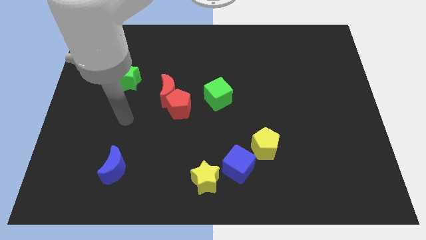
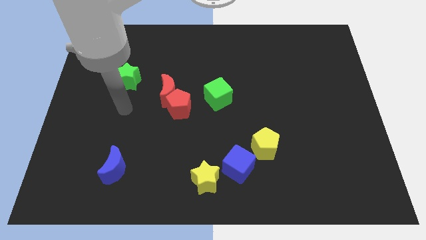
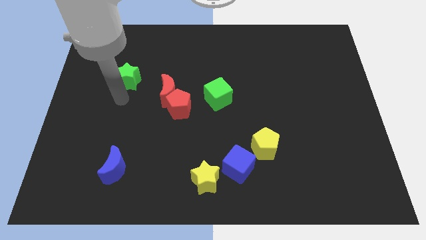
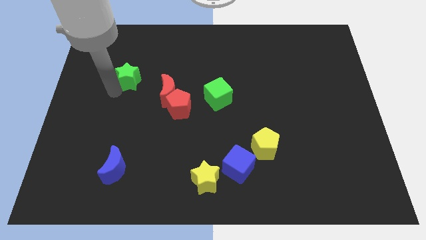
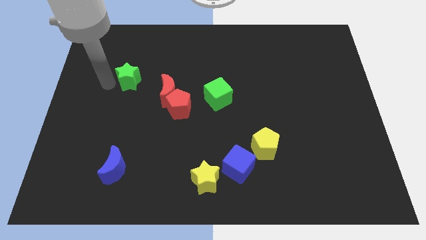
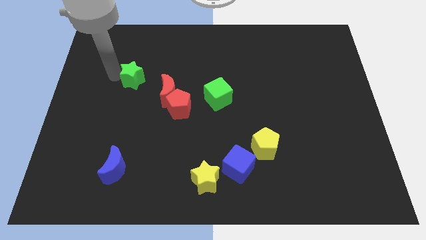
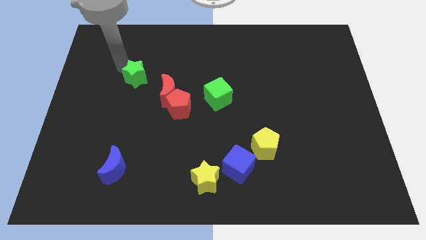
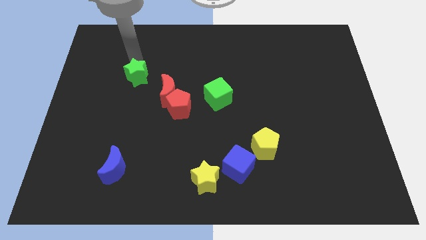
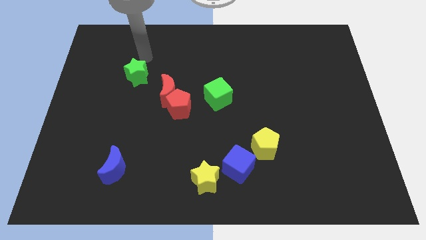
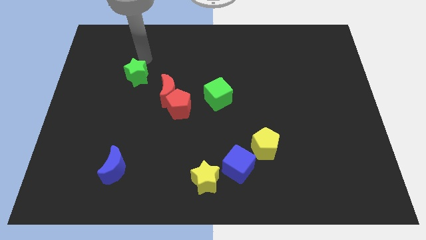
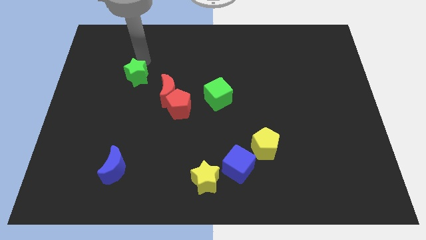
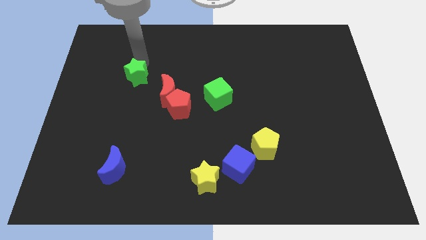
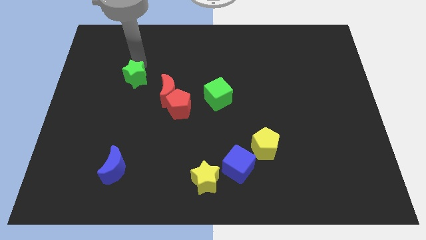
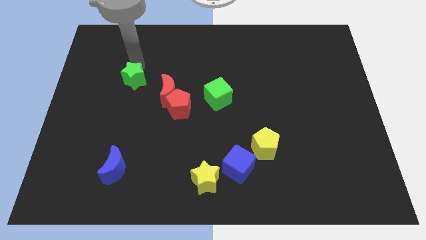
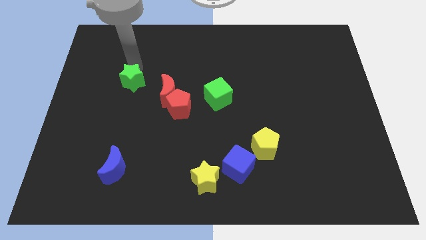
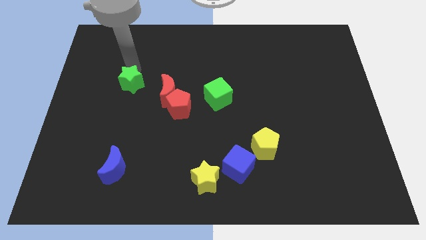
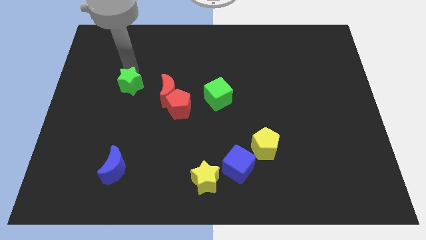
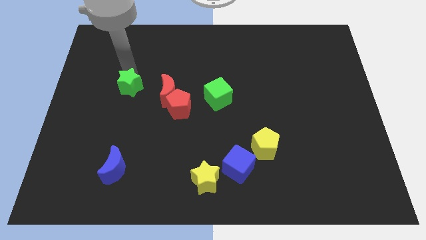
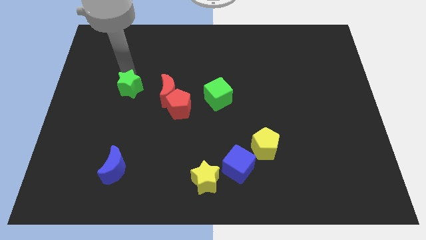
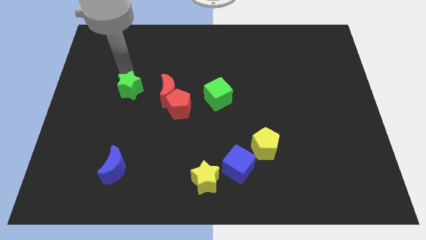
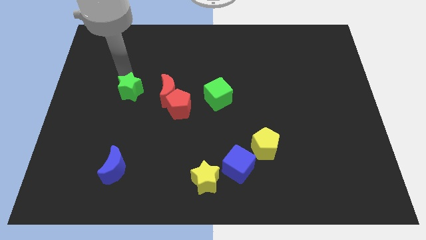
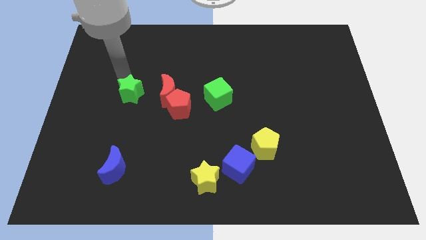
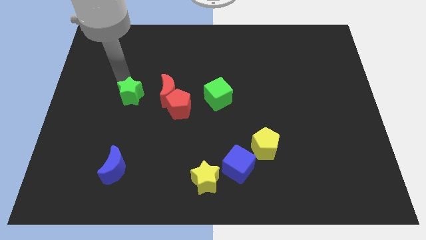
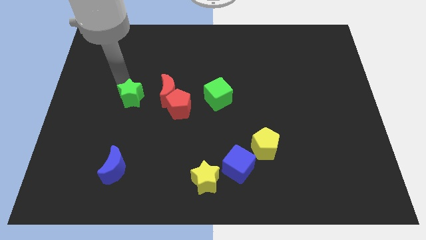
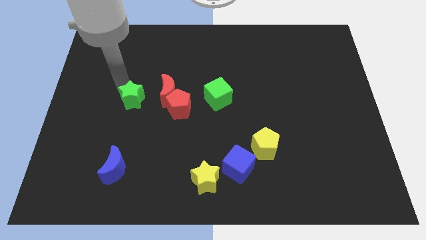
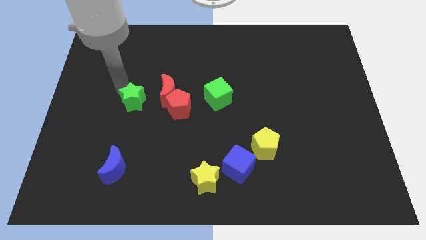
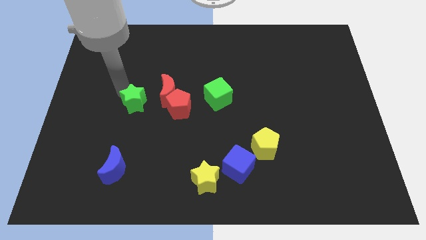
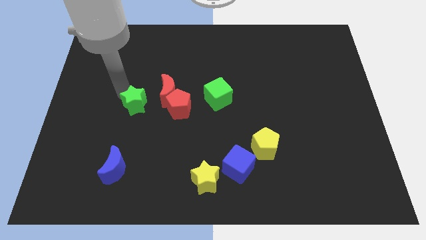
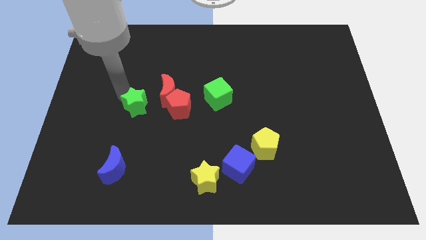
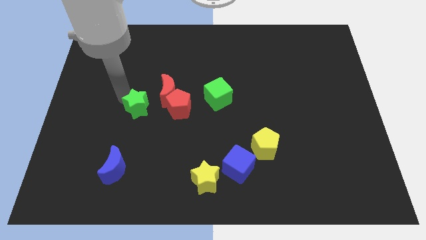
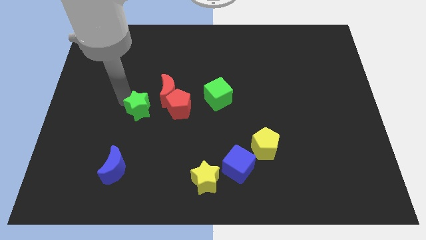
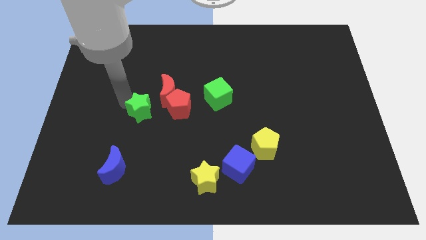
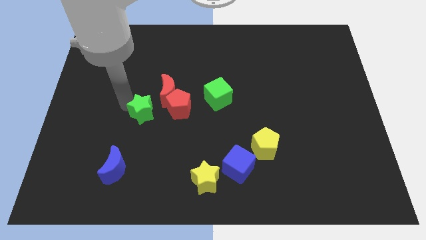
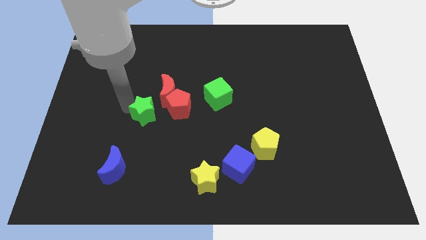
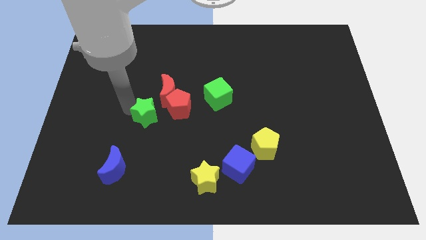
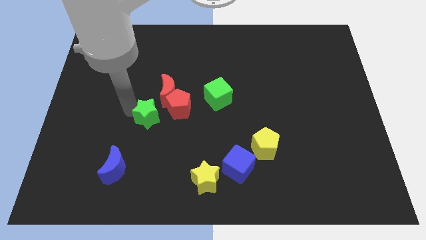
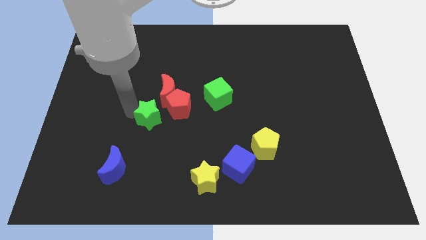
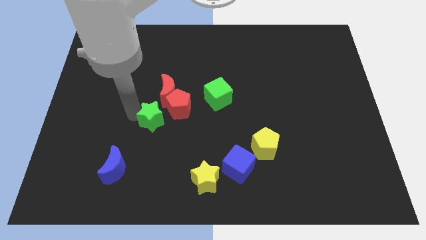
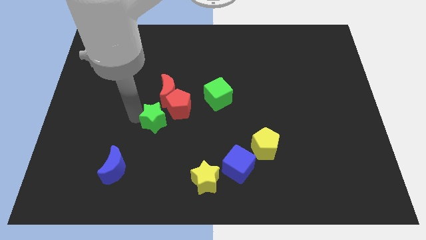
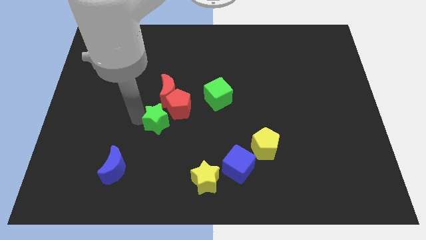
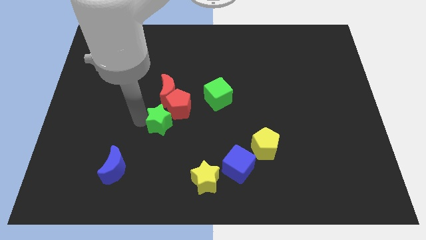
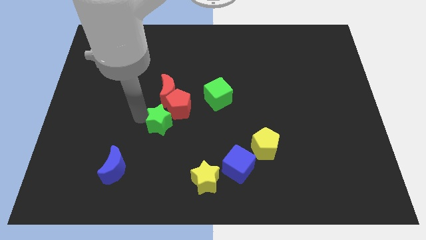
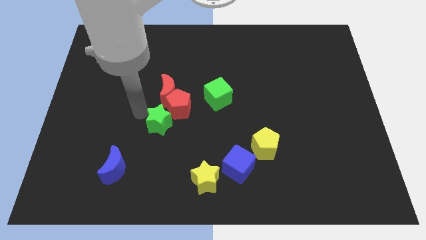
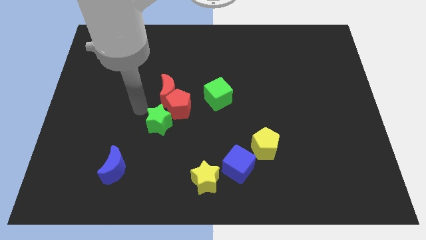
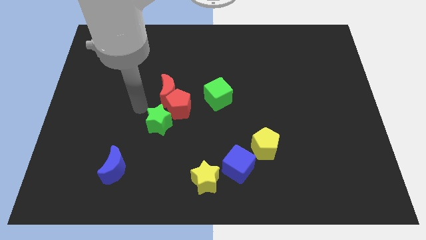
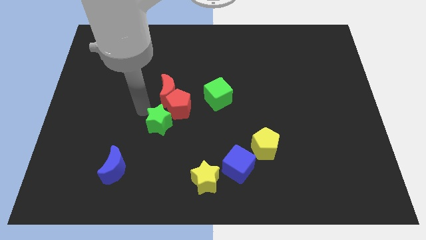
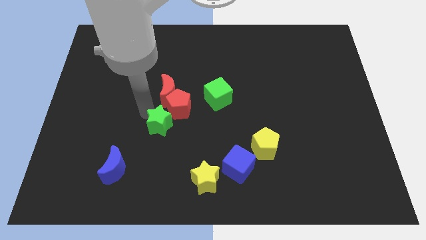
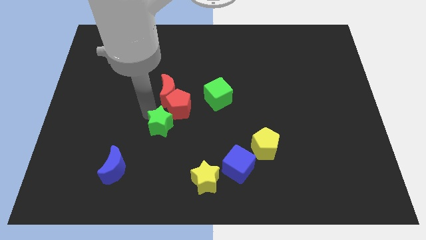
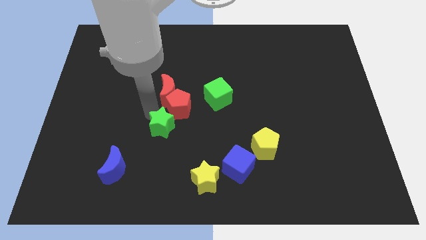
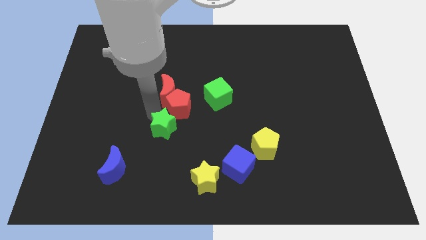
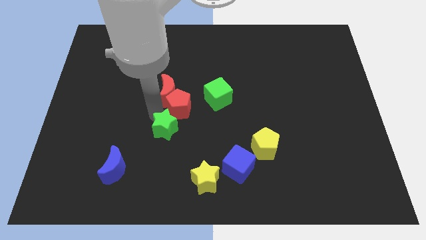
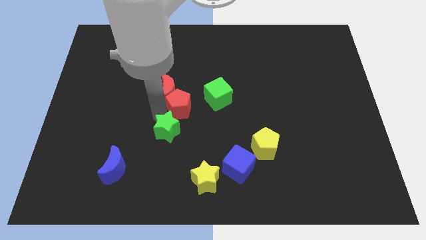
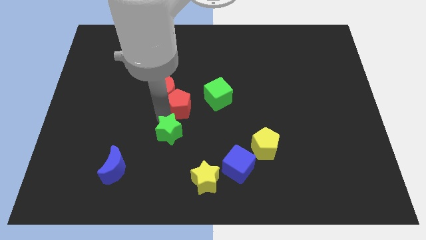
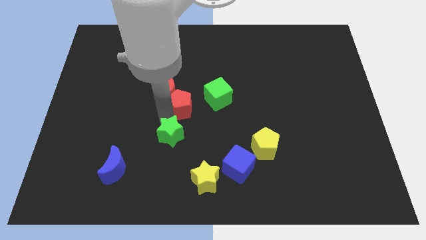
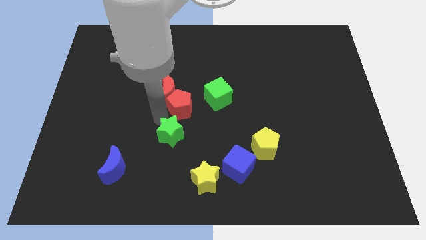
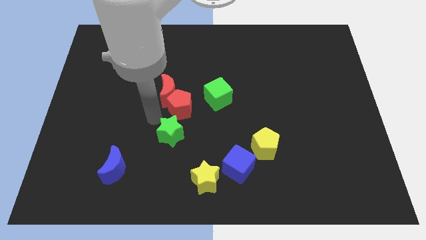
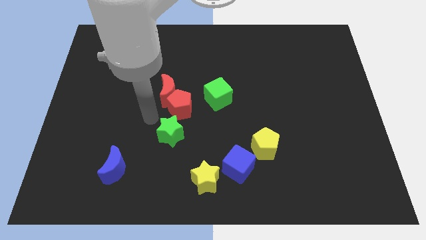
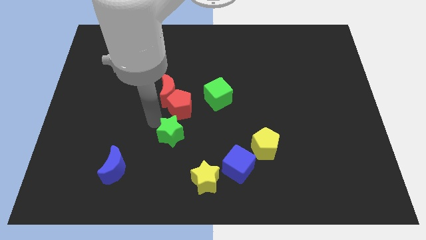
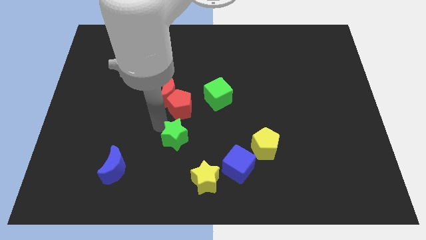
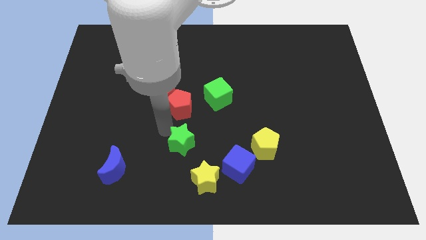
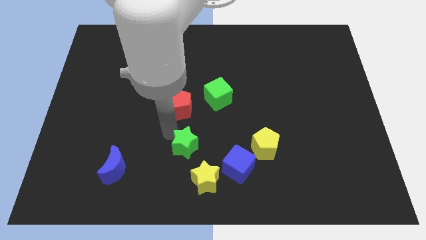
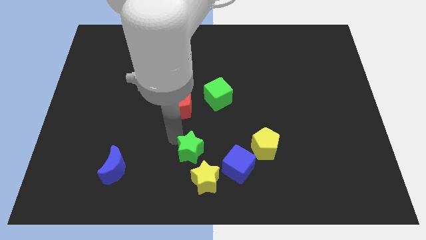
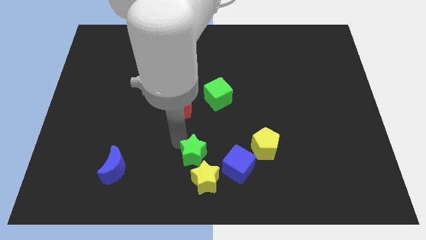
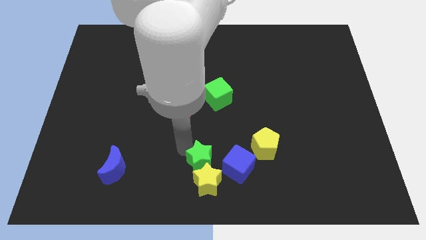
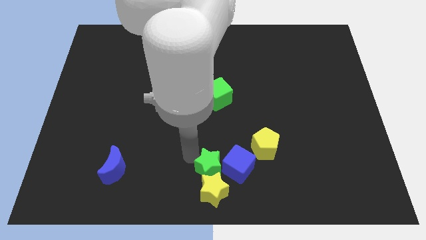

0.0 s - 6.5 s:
slide the green star to the blue cube

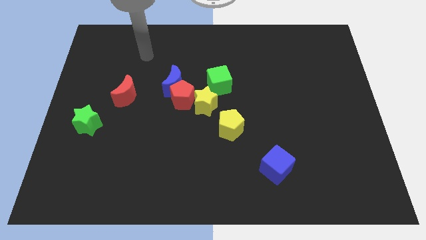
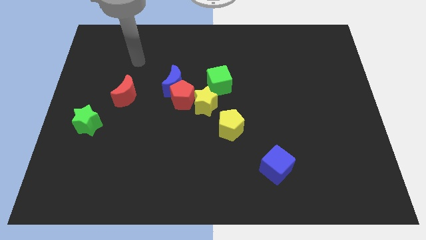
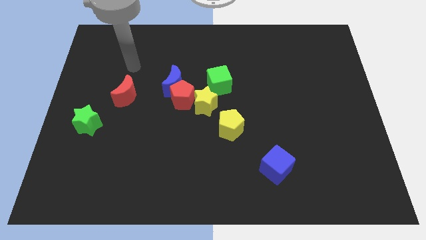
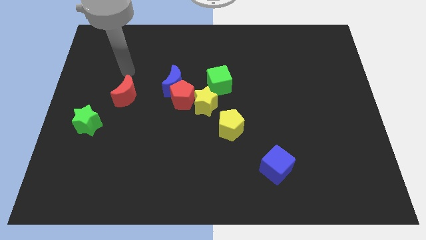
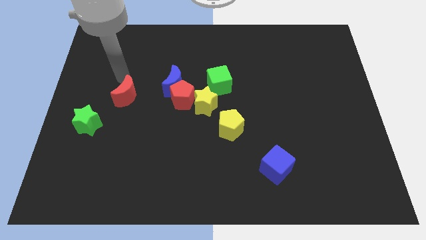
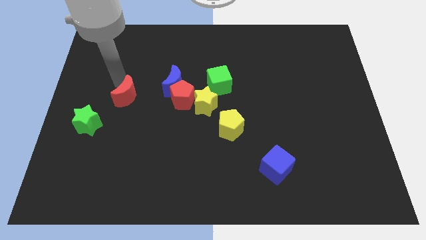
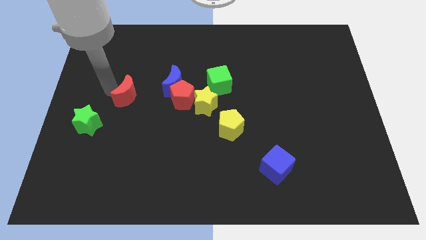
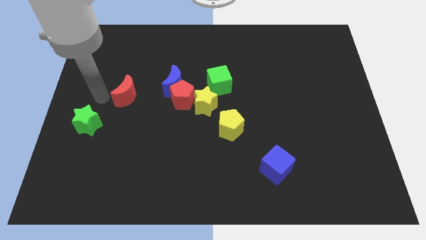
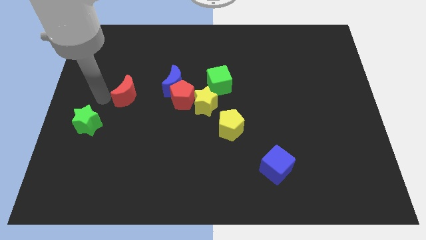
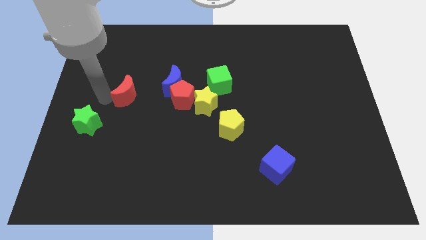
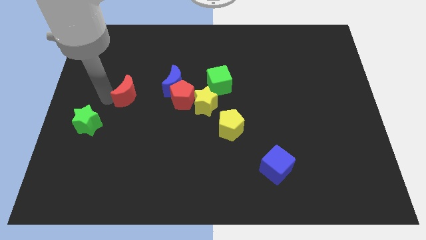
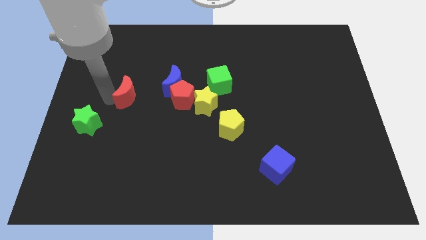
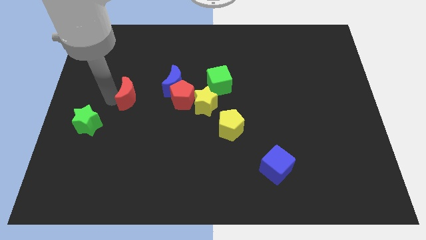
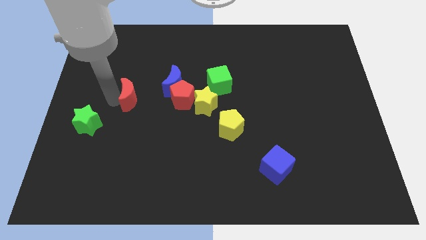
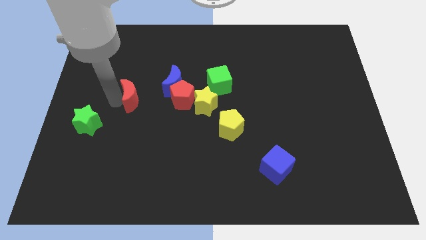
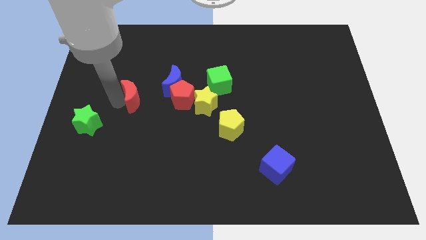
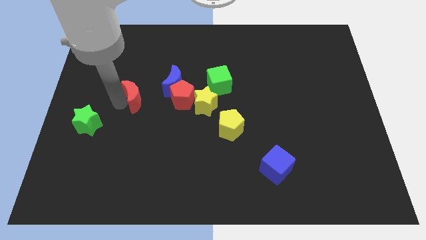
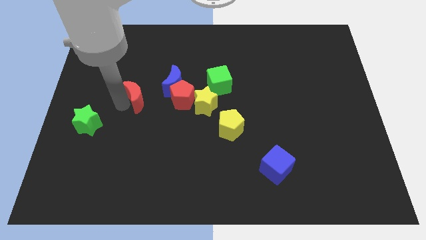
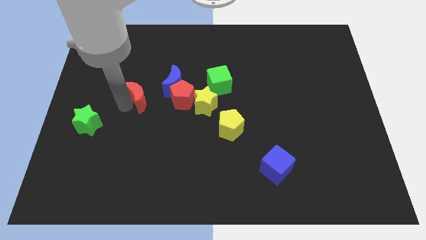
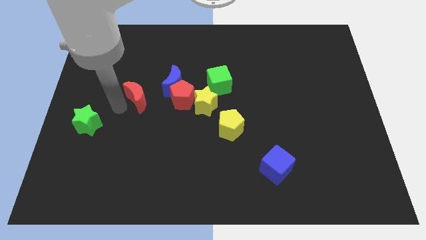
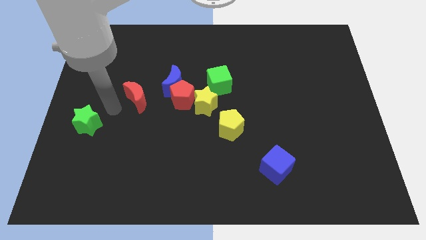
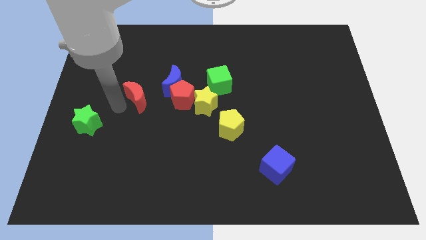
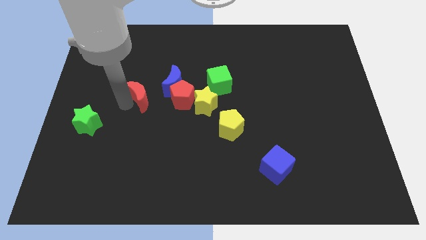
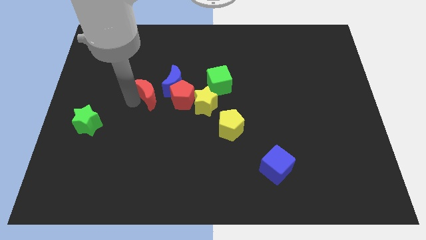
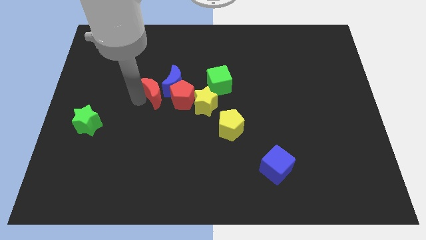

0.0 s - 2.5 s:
slide the red moon towards the blue moon
